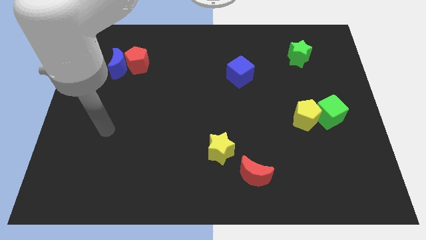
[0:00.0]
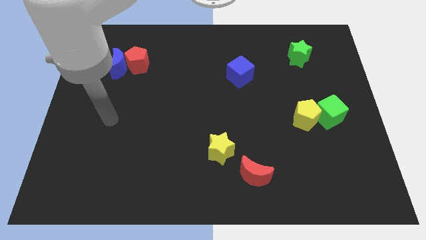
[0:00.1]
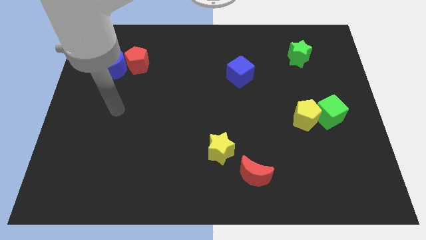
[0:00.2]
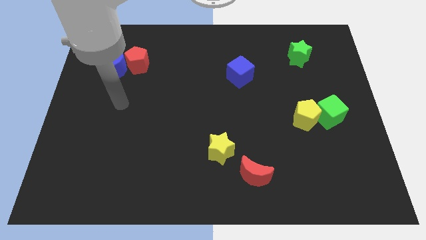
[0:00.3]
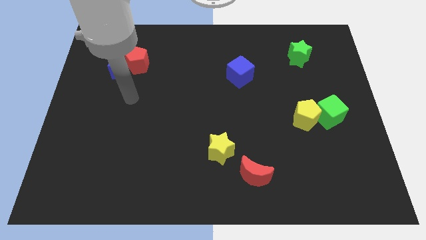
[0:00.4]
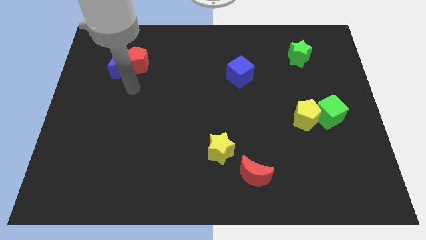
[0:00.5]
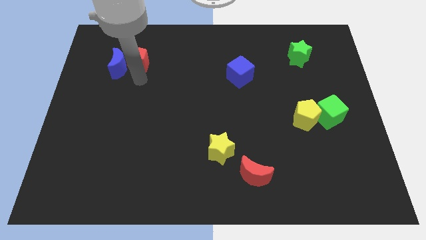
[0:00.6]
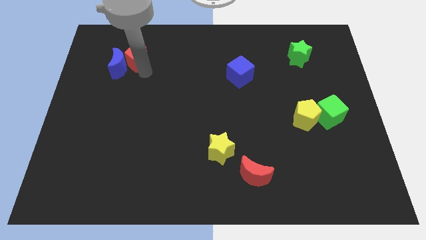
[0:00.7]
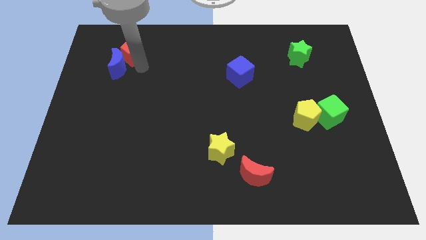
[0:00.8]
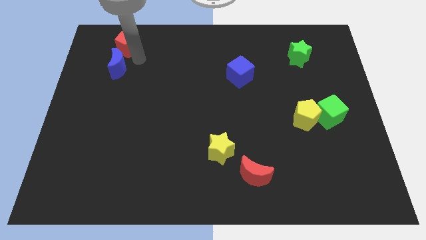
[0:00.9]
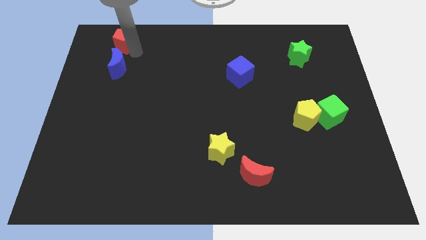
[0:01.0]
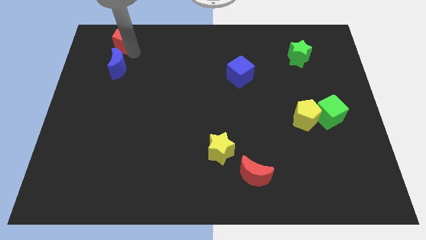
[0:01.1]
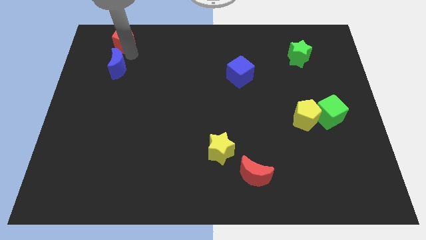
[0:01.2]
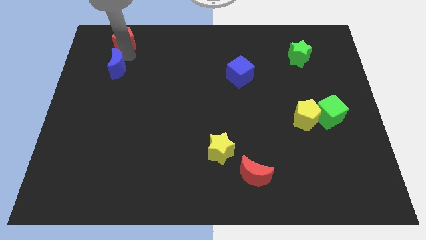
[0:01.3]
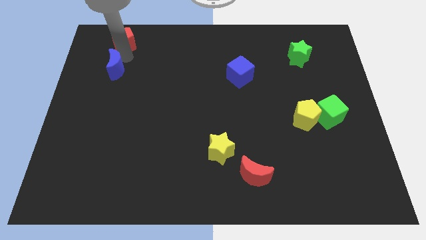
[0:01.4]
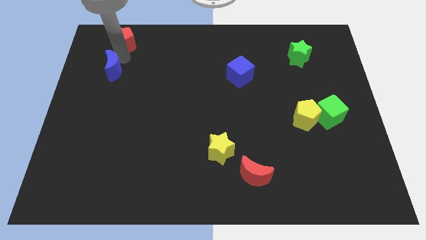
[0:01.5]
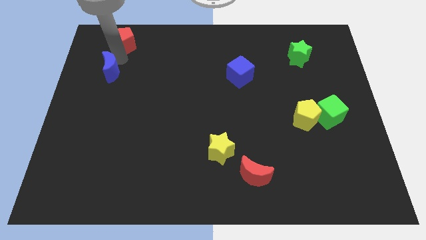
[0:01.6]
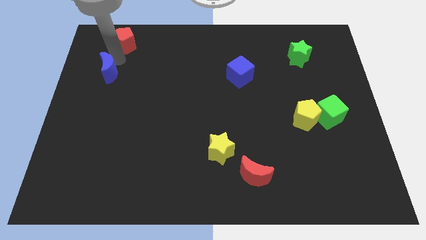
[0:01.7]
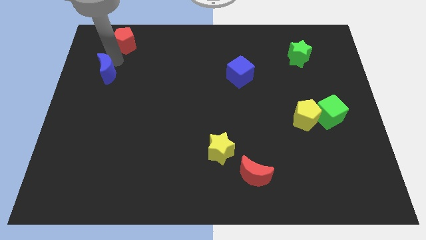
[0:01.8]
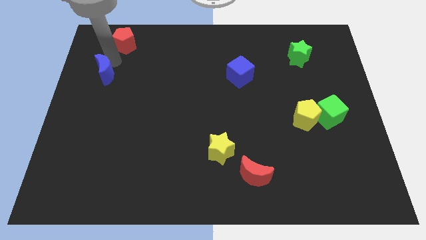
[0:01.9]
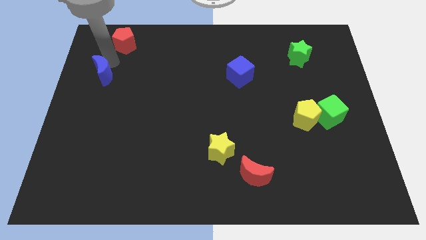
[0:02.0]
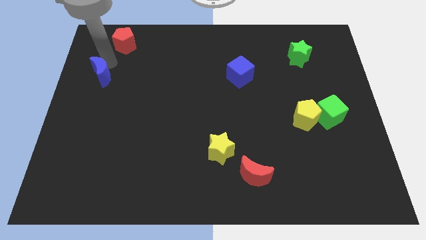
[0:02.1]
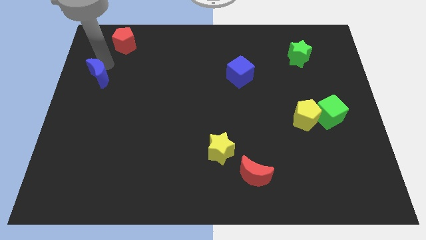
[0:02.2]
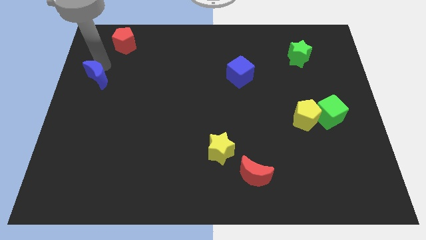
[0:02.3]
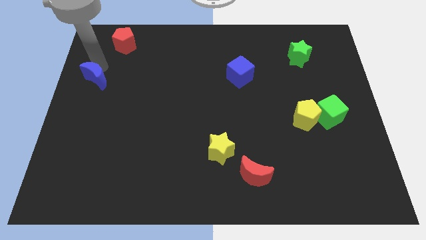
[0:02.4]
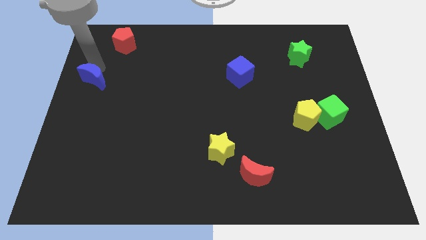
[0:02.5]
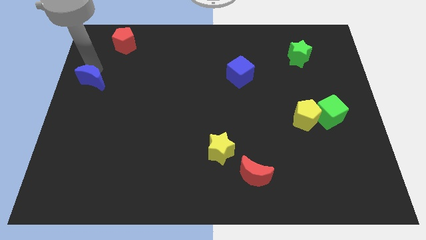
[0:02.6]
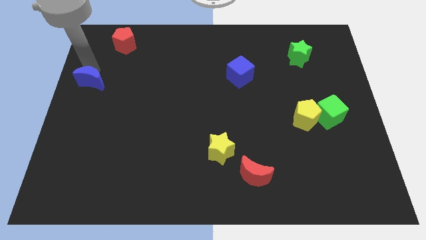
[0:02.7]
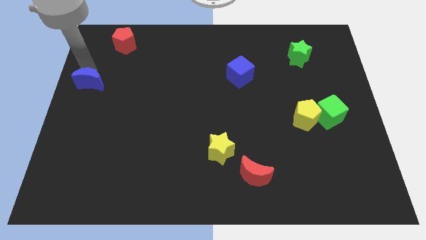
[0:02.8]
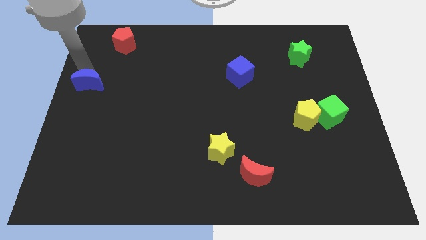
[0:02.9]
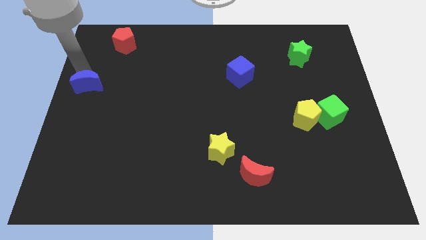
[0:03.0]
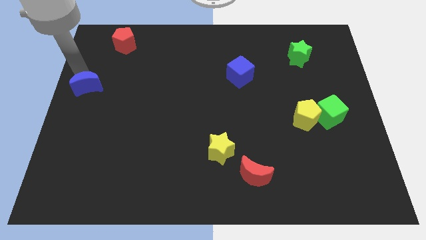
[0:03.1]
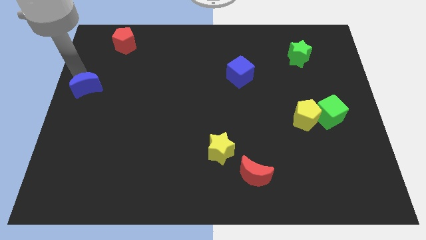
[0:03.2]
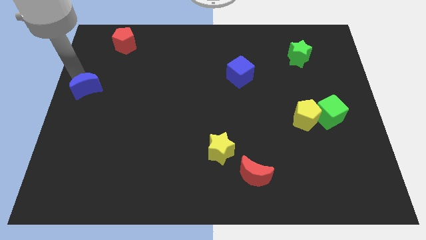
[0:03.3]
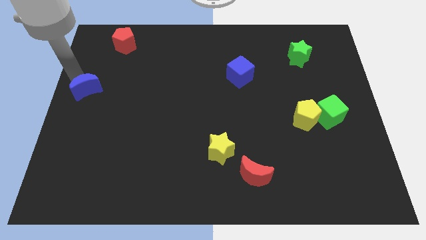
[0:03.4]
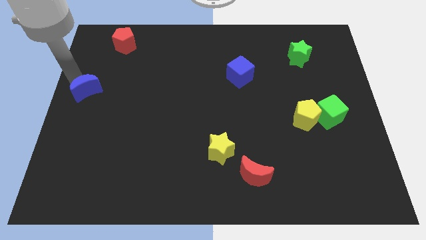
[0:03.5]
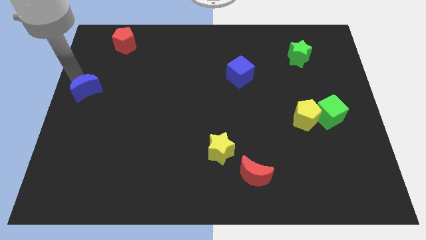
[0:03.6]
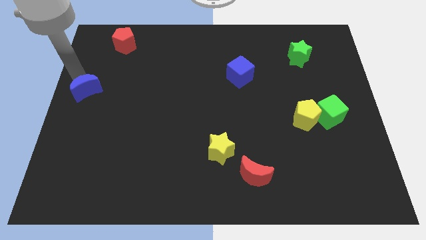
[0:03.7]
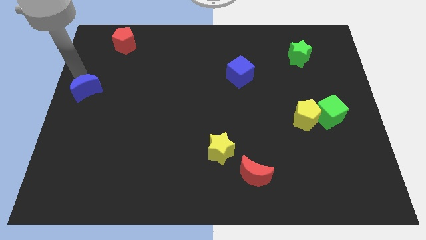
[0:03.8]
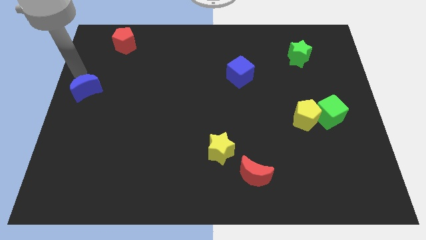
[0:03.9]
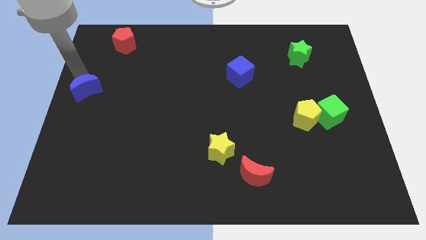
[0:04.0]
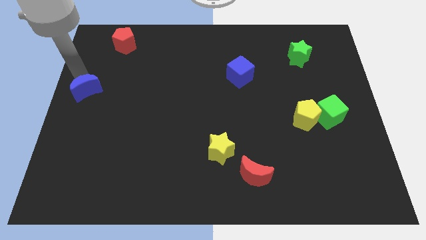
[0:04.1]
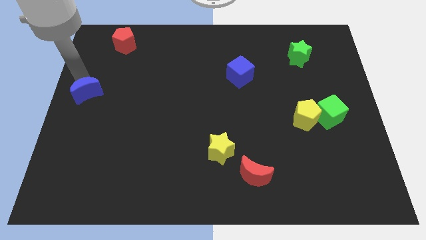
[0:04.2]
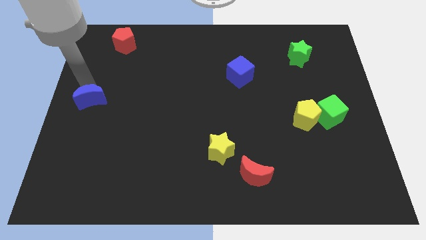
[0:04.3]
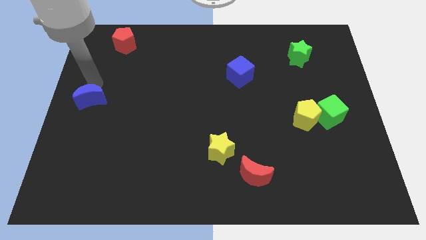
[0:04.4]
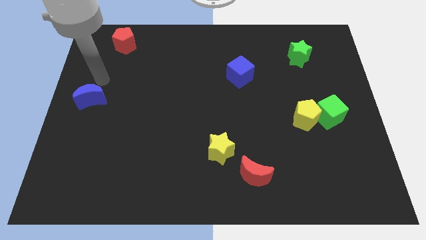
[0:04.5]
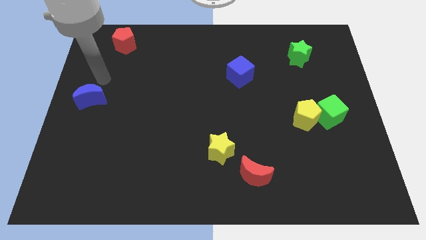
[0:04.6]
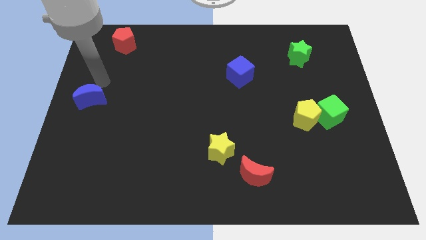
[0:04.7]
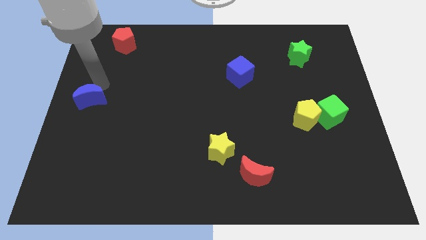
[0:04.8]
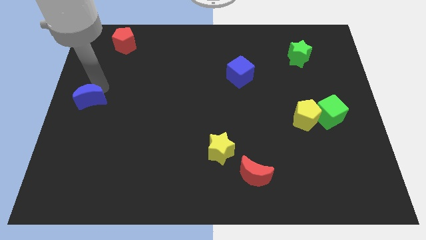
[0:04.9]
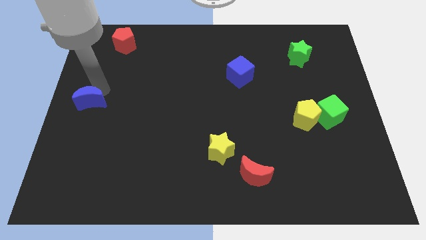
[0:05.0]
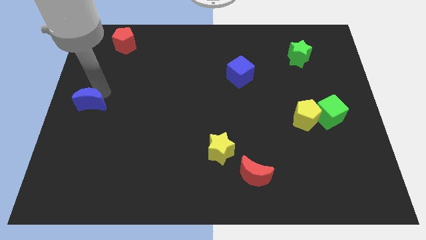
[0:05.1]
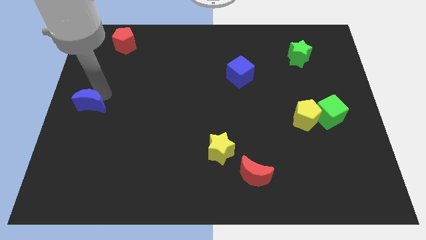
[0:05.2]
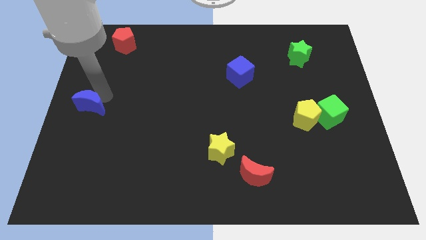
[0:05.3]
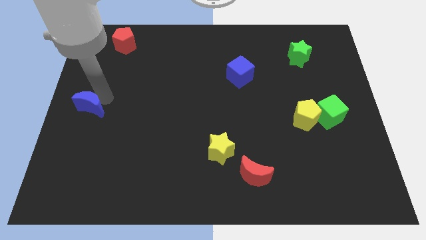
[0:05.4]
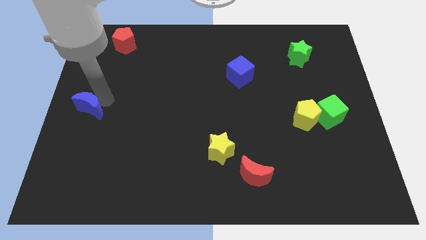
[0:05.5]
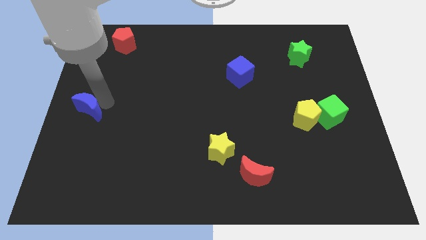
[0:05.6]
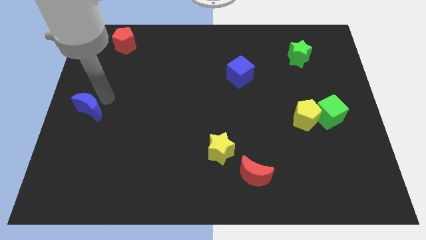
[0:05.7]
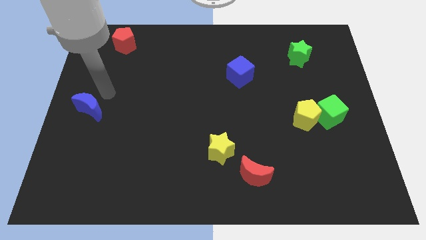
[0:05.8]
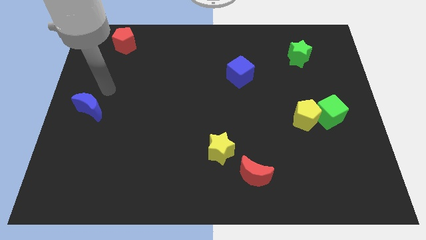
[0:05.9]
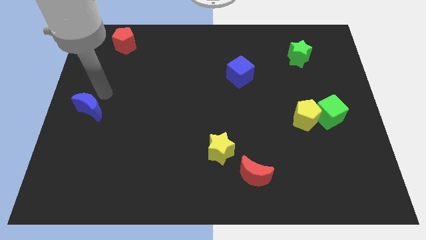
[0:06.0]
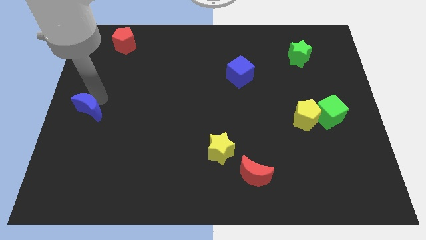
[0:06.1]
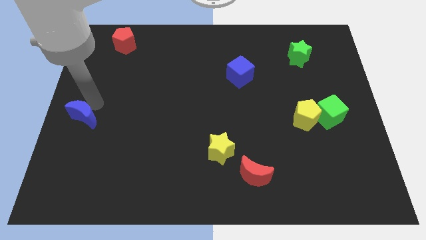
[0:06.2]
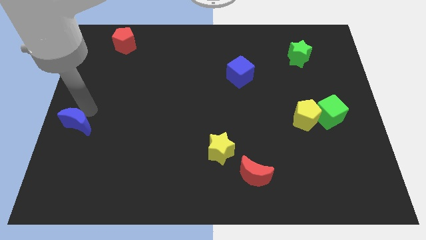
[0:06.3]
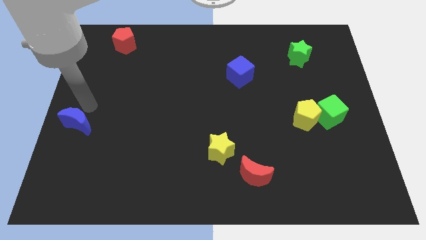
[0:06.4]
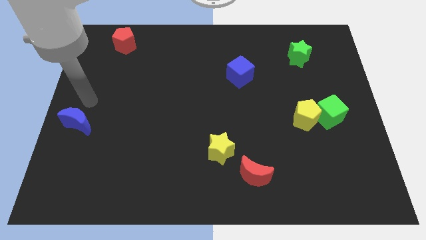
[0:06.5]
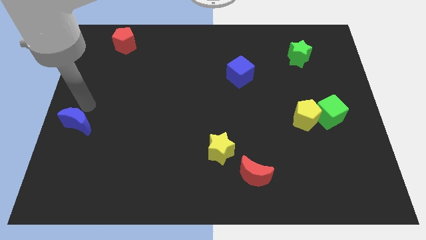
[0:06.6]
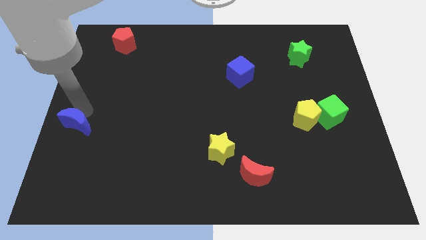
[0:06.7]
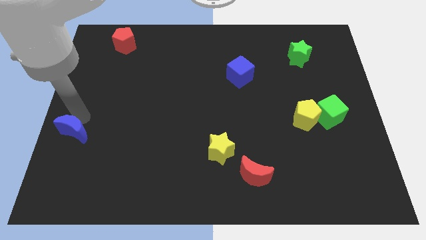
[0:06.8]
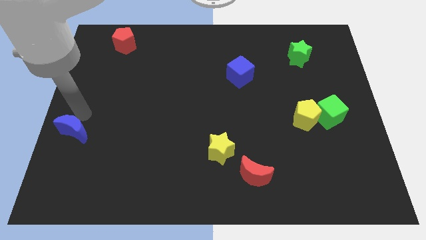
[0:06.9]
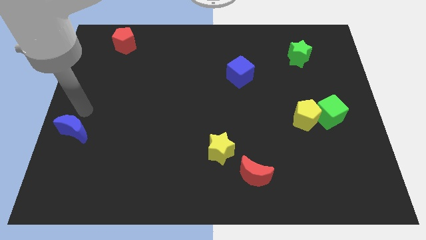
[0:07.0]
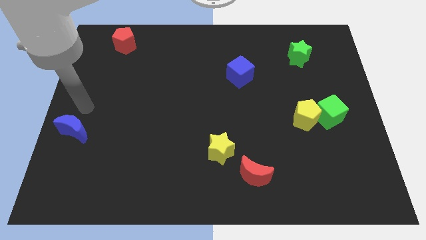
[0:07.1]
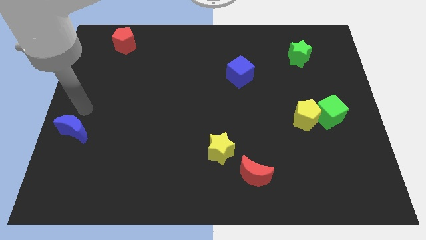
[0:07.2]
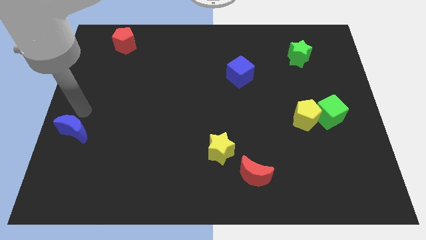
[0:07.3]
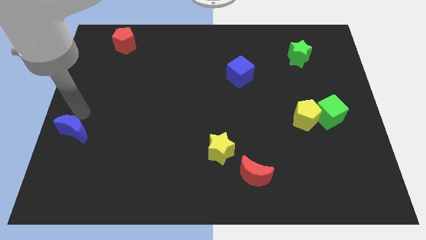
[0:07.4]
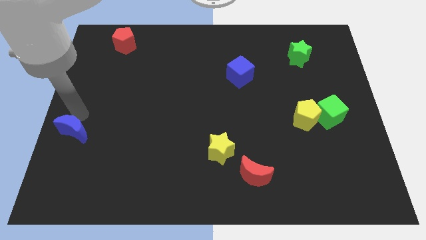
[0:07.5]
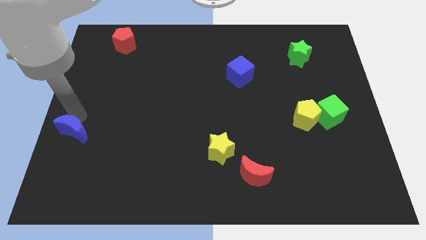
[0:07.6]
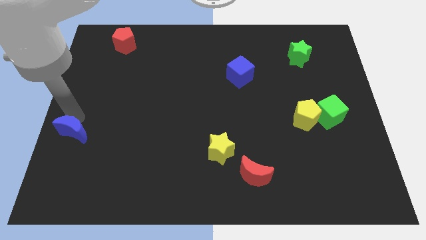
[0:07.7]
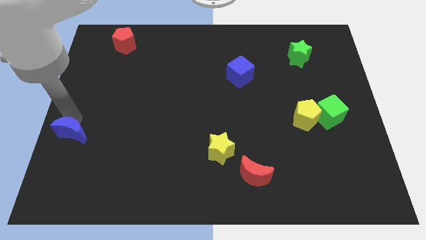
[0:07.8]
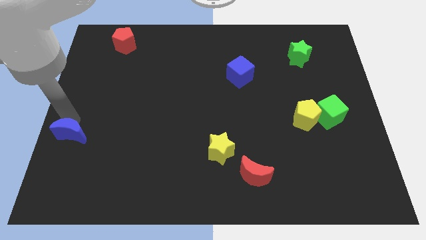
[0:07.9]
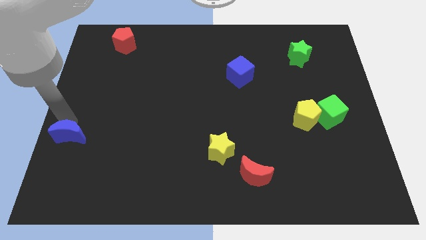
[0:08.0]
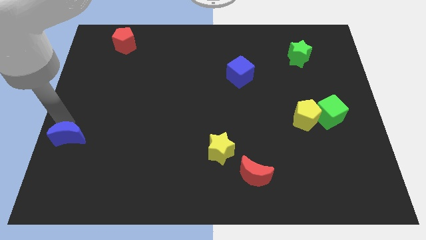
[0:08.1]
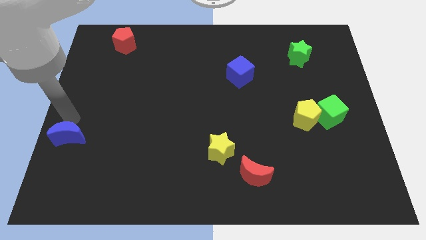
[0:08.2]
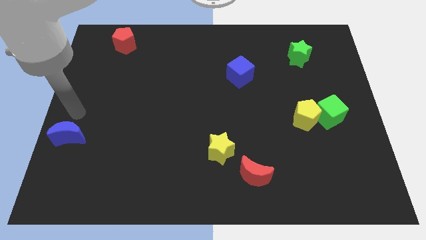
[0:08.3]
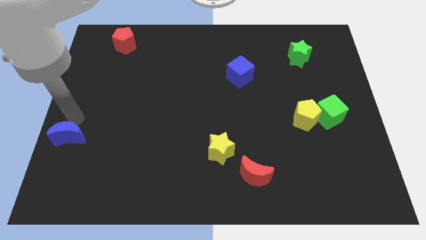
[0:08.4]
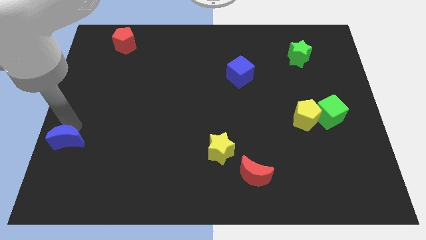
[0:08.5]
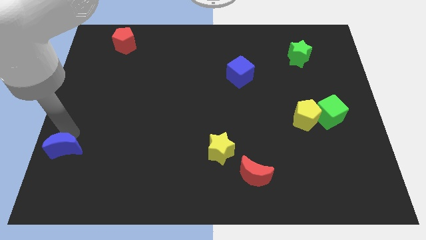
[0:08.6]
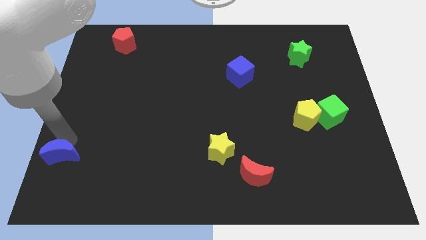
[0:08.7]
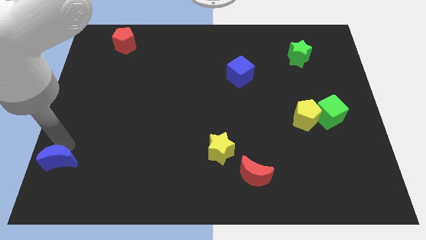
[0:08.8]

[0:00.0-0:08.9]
slide the blue moon to the bottom left of the board
